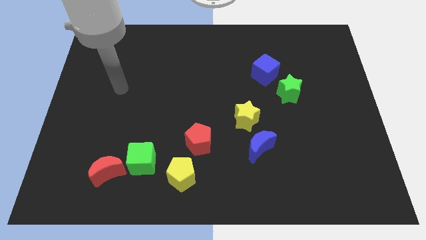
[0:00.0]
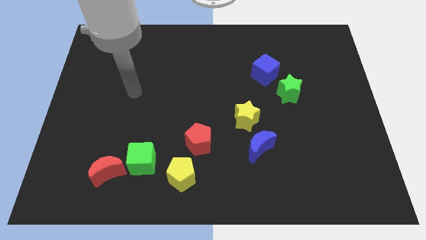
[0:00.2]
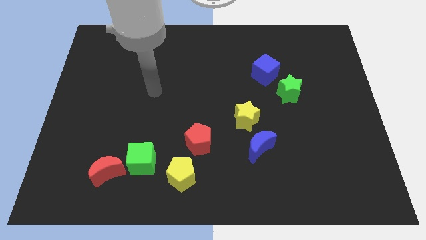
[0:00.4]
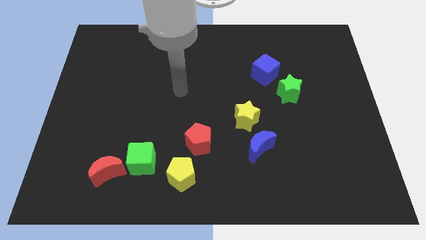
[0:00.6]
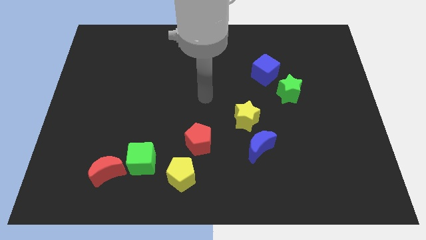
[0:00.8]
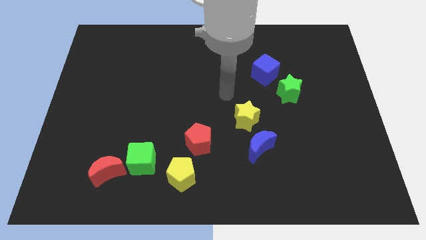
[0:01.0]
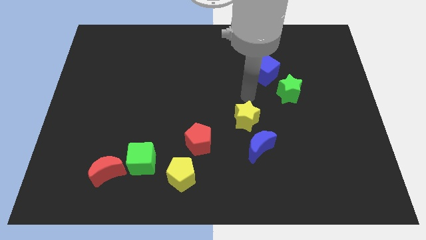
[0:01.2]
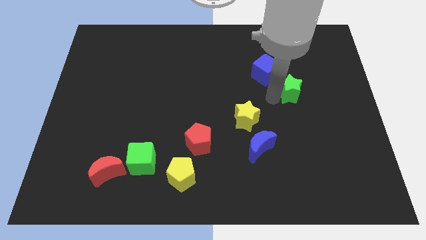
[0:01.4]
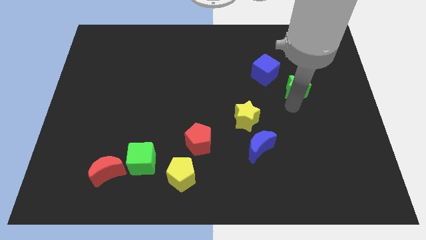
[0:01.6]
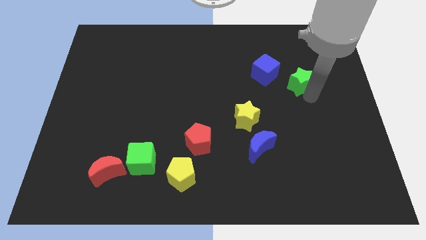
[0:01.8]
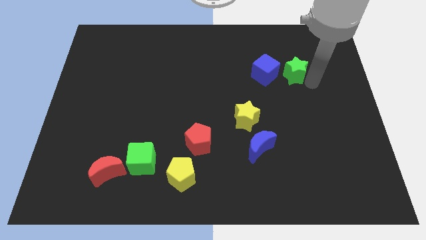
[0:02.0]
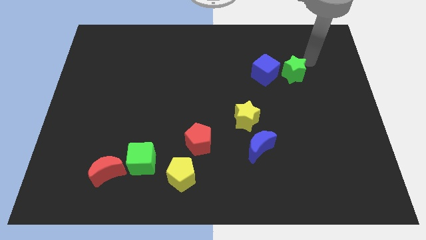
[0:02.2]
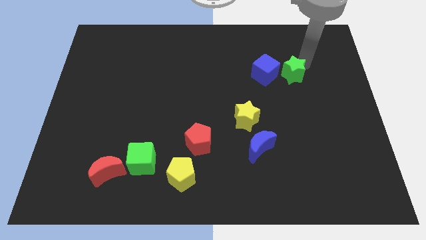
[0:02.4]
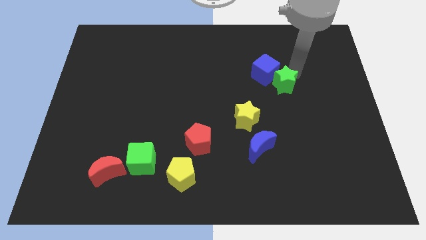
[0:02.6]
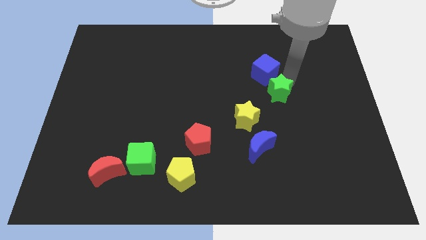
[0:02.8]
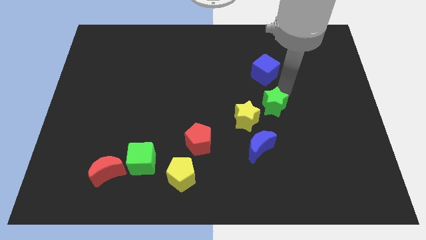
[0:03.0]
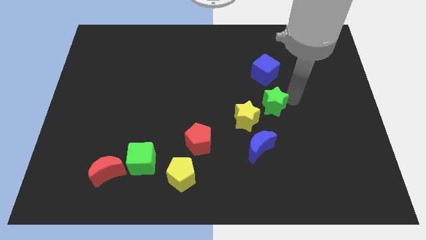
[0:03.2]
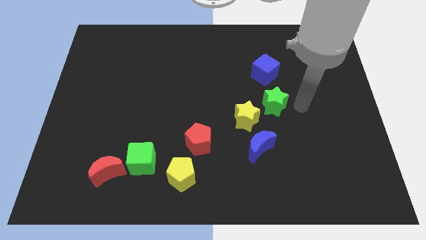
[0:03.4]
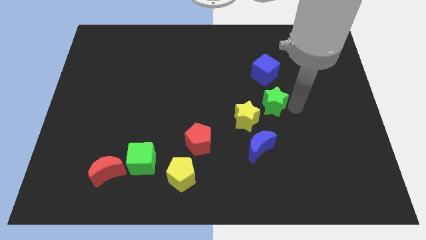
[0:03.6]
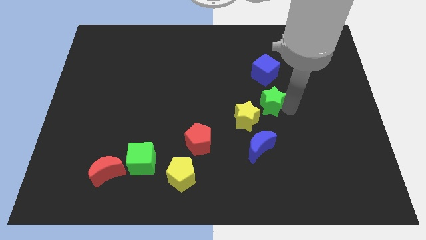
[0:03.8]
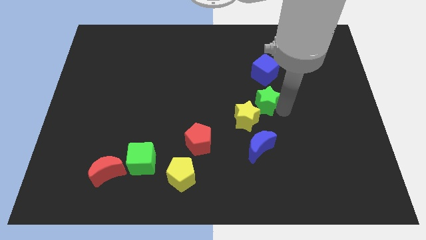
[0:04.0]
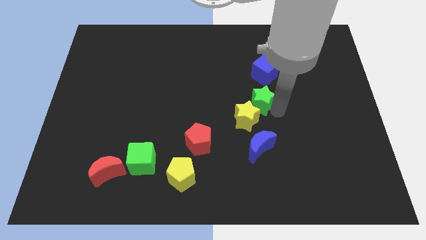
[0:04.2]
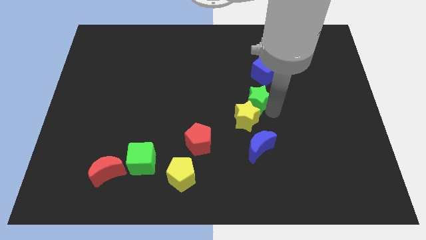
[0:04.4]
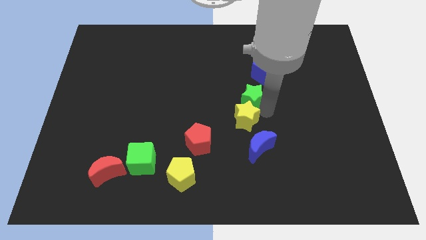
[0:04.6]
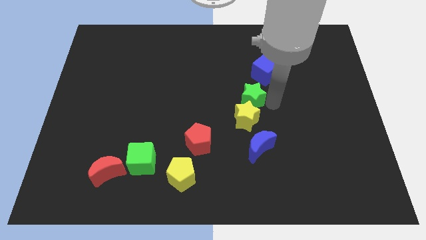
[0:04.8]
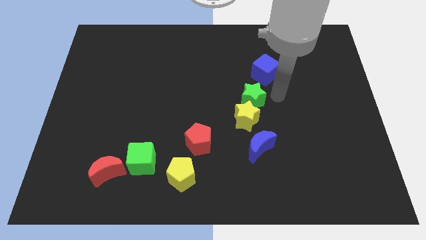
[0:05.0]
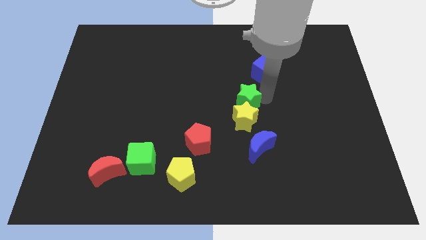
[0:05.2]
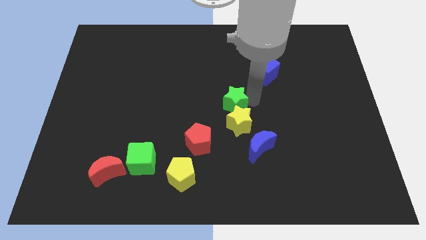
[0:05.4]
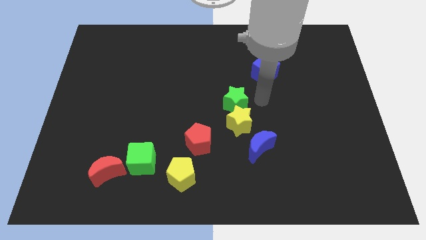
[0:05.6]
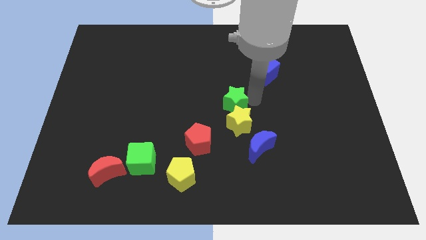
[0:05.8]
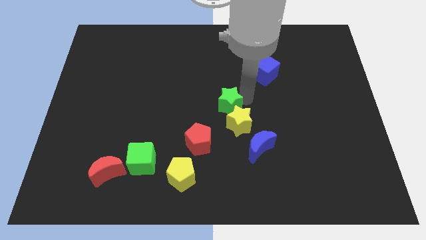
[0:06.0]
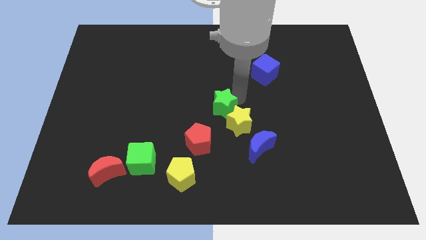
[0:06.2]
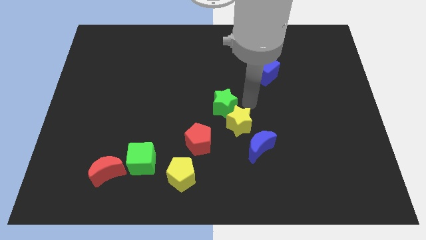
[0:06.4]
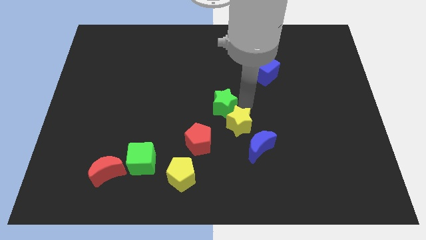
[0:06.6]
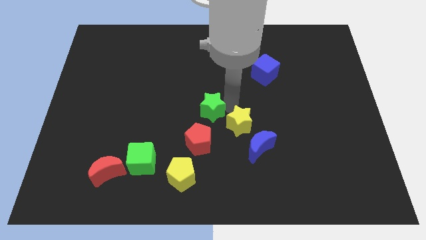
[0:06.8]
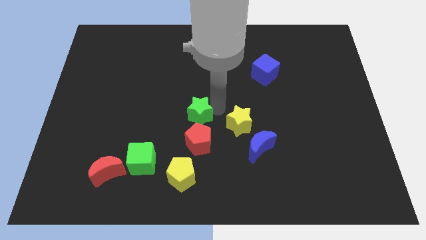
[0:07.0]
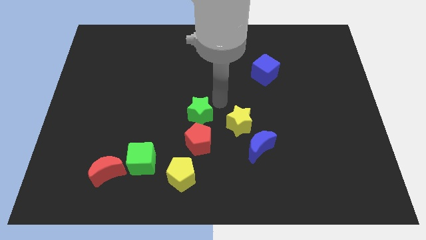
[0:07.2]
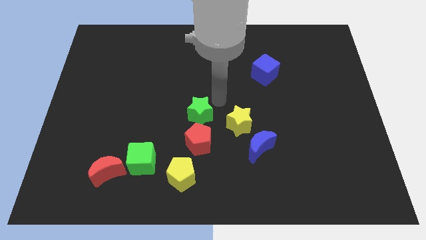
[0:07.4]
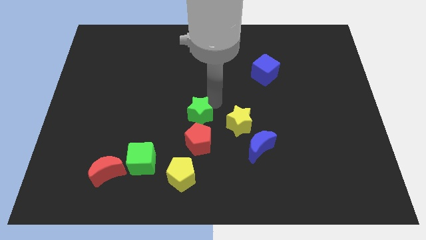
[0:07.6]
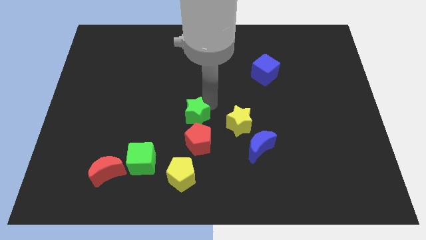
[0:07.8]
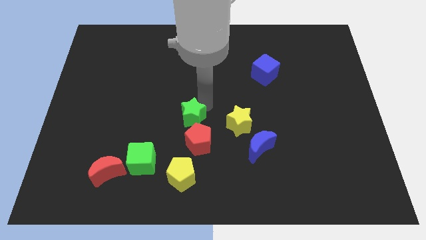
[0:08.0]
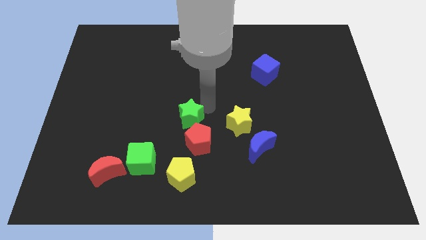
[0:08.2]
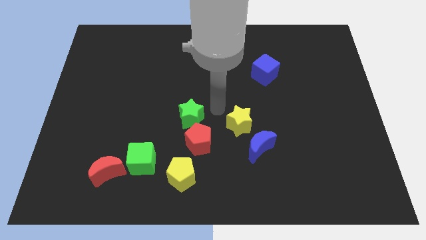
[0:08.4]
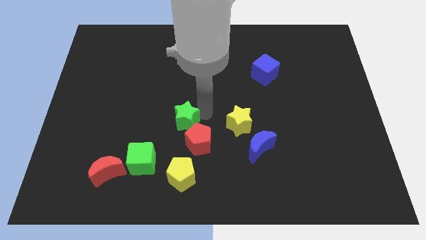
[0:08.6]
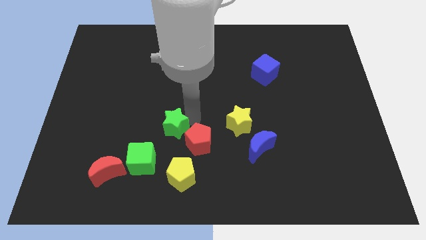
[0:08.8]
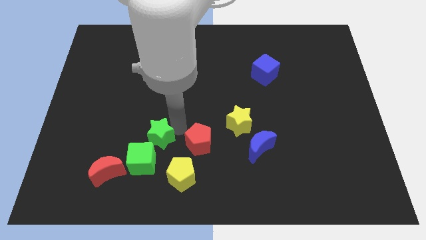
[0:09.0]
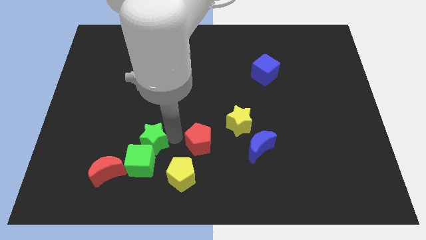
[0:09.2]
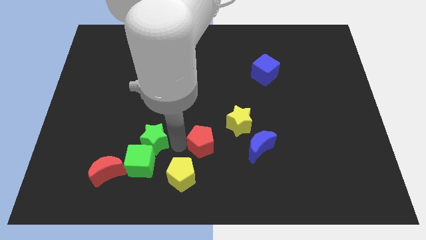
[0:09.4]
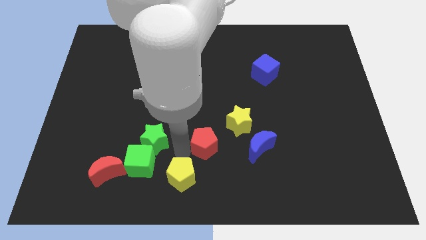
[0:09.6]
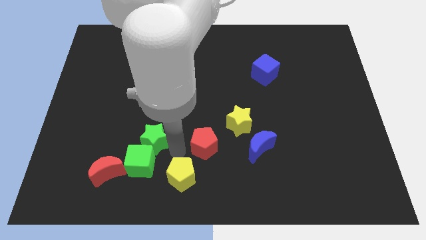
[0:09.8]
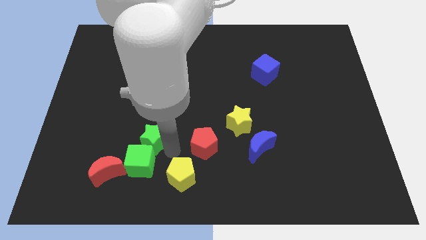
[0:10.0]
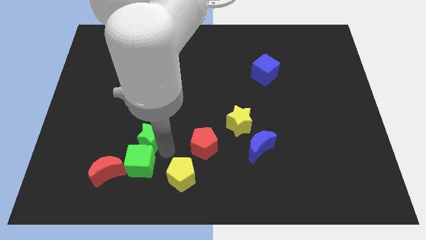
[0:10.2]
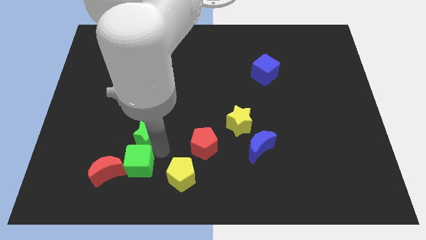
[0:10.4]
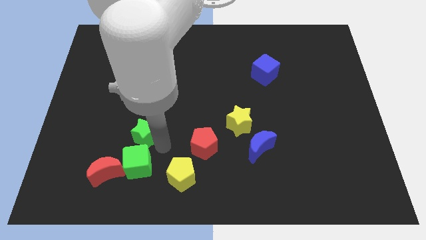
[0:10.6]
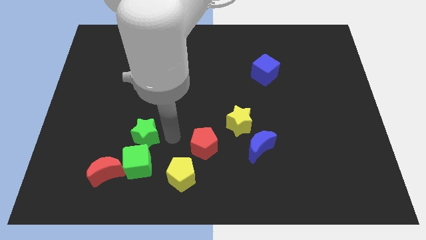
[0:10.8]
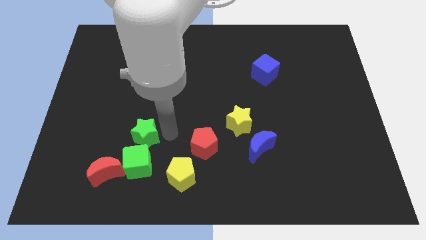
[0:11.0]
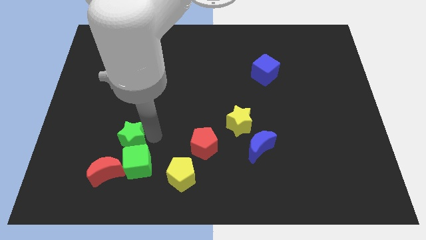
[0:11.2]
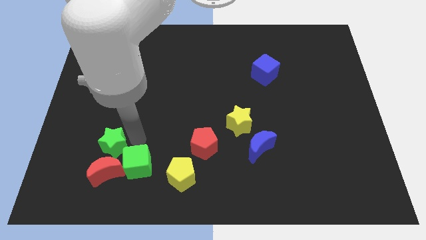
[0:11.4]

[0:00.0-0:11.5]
put the green star diagonally up and to the left of the red moon

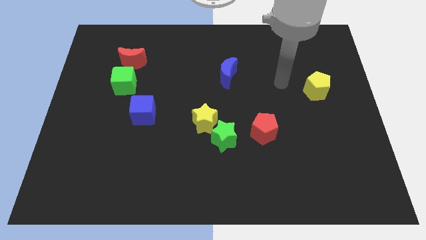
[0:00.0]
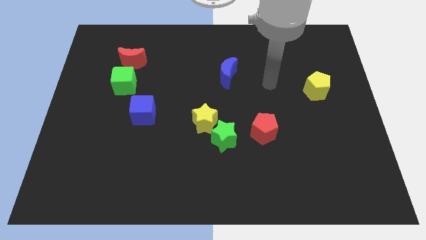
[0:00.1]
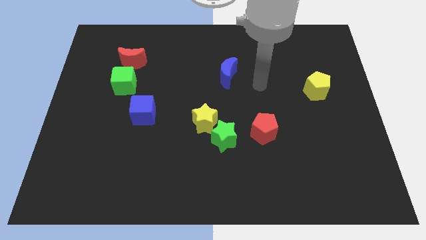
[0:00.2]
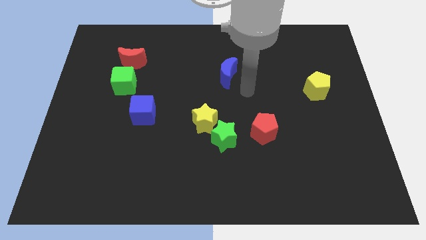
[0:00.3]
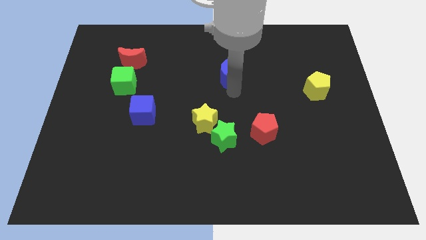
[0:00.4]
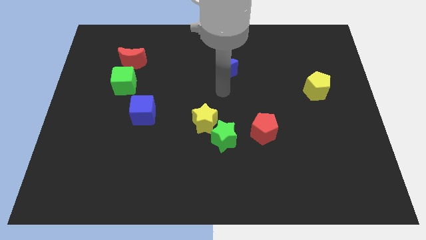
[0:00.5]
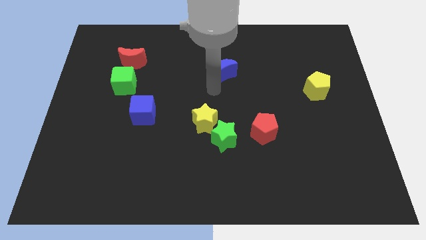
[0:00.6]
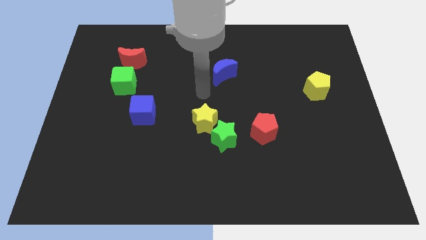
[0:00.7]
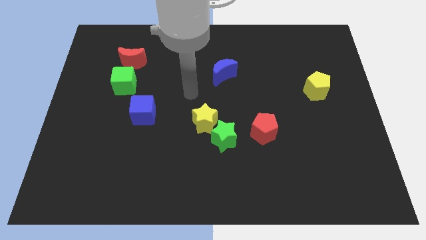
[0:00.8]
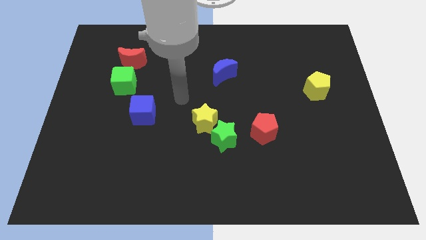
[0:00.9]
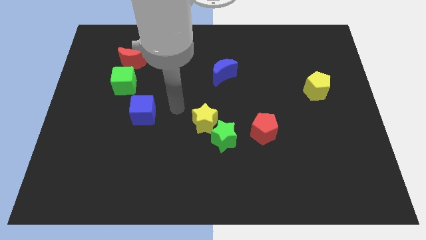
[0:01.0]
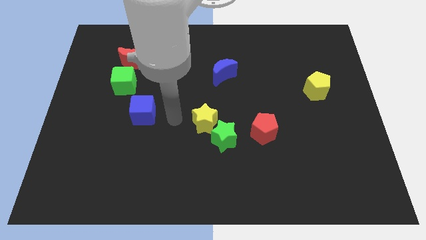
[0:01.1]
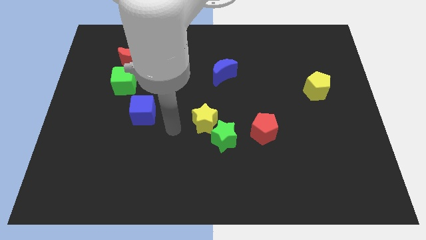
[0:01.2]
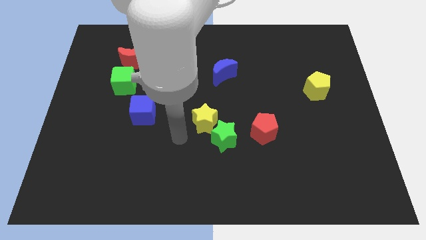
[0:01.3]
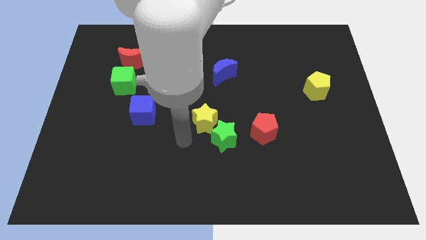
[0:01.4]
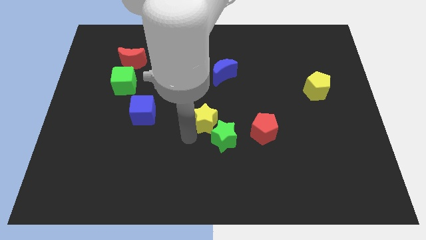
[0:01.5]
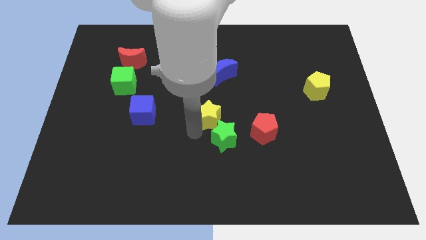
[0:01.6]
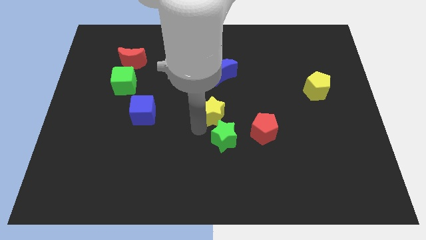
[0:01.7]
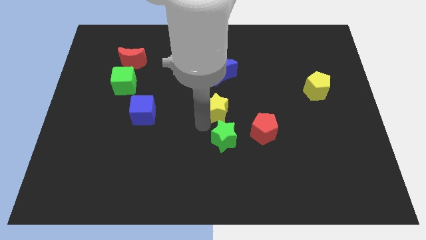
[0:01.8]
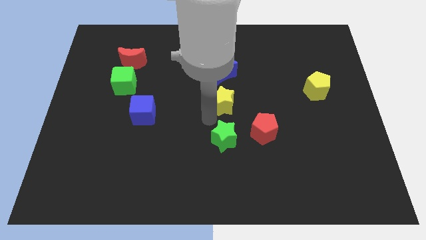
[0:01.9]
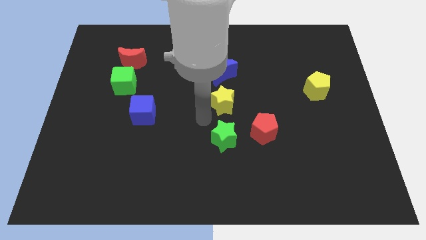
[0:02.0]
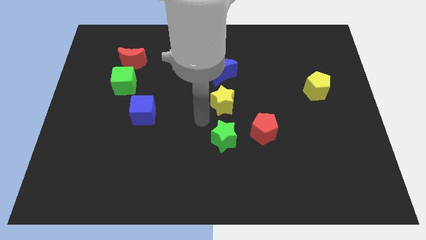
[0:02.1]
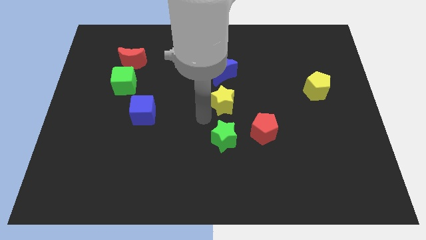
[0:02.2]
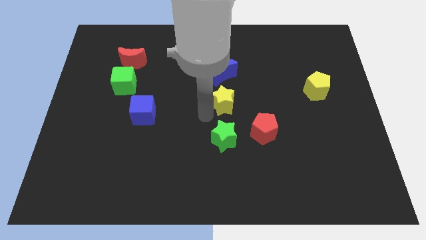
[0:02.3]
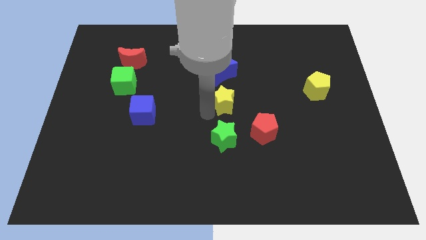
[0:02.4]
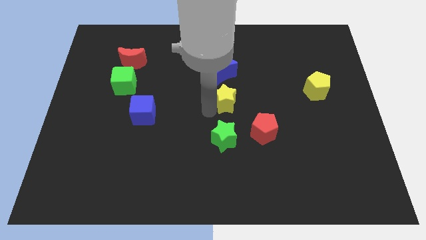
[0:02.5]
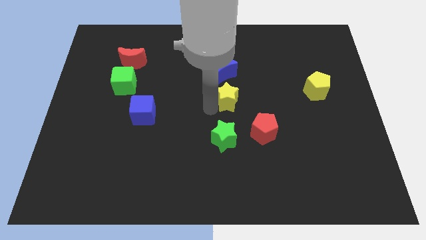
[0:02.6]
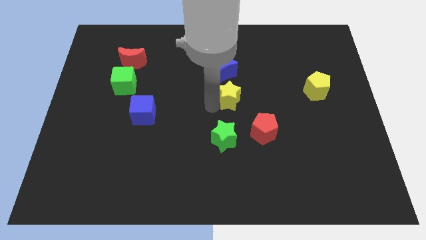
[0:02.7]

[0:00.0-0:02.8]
put the yellow star diagonally down and to the right of the blue moon
